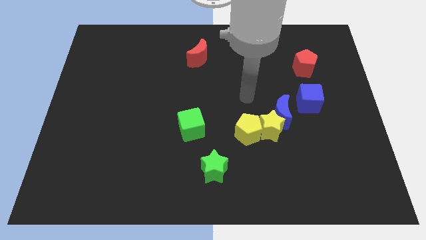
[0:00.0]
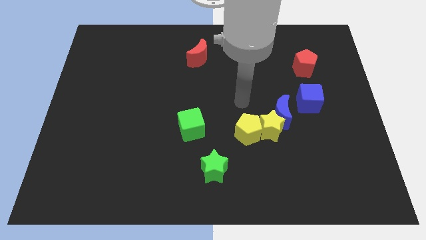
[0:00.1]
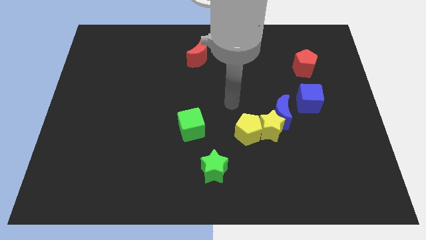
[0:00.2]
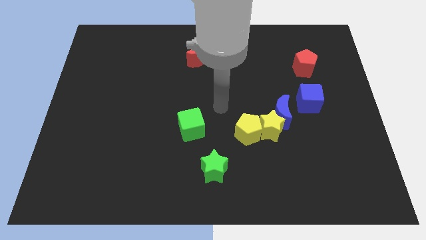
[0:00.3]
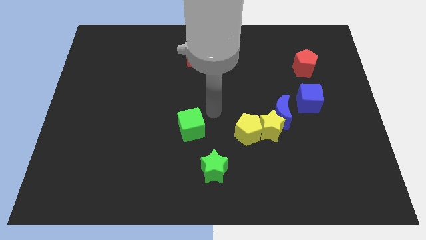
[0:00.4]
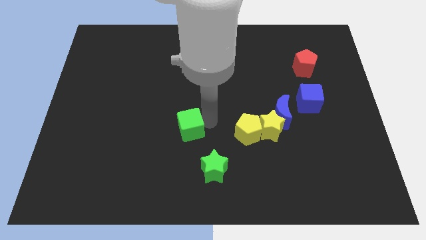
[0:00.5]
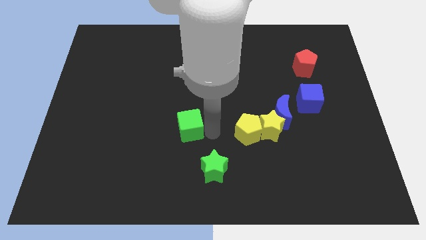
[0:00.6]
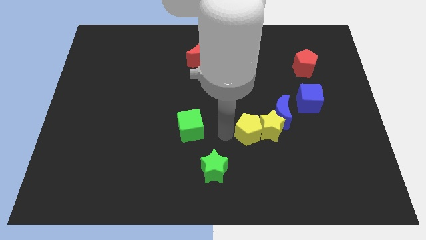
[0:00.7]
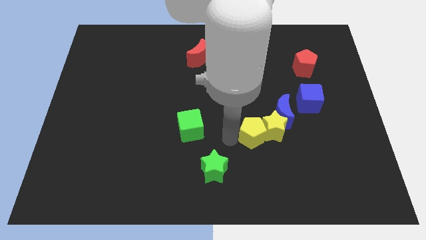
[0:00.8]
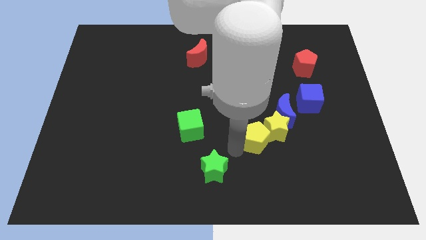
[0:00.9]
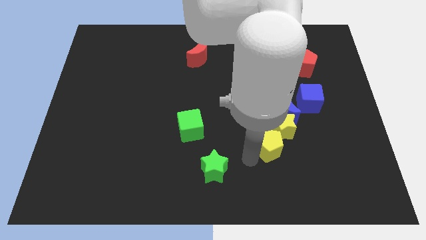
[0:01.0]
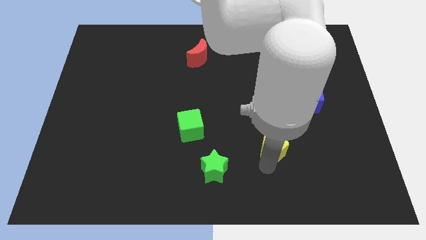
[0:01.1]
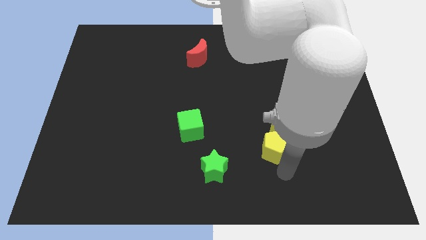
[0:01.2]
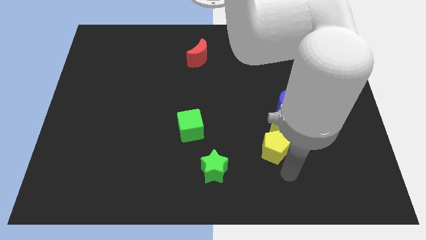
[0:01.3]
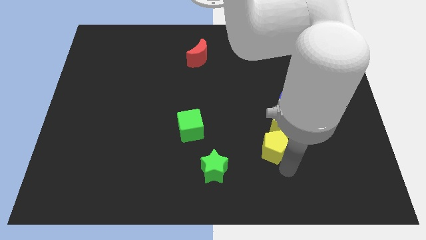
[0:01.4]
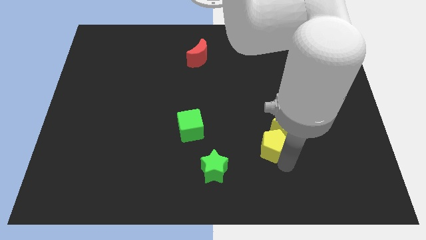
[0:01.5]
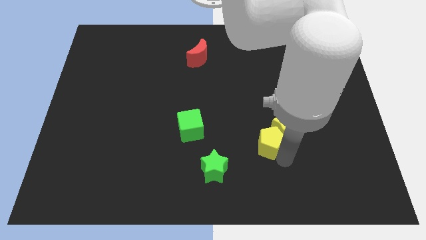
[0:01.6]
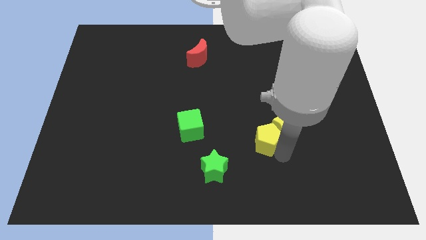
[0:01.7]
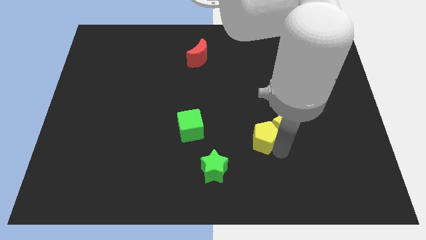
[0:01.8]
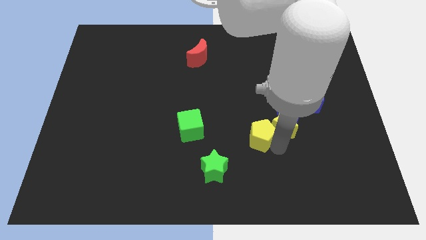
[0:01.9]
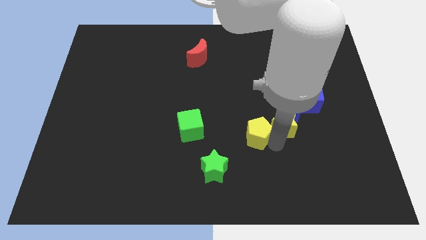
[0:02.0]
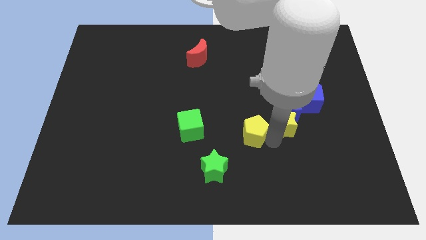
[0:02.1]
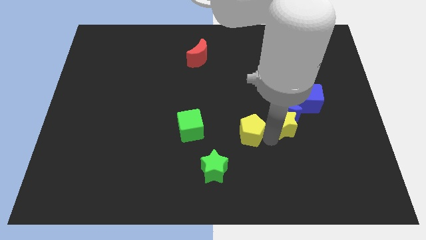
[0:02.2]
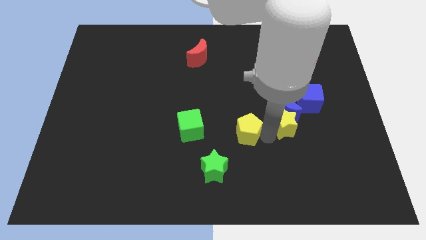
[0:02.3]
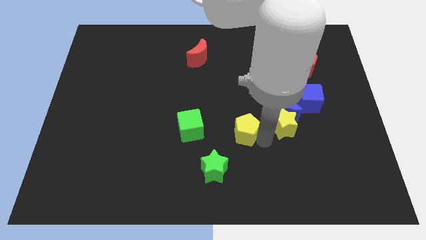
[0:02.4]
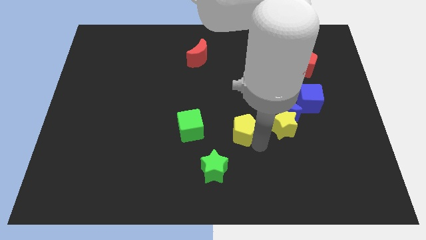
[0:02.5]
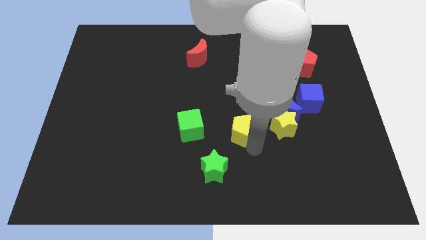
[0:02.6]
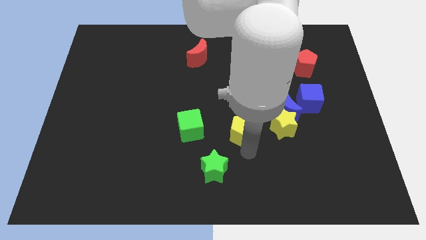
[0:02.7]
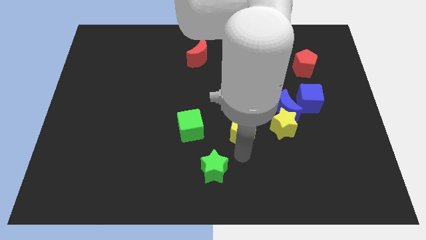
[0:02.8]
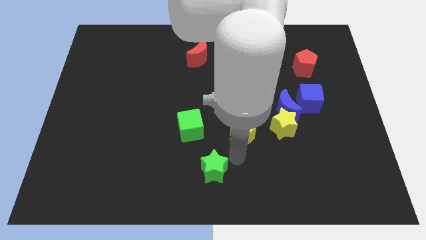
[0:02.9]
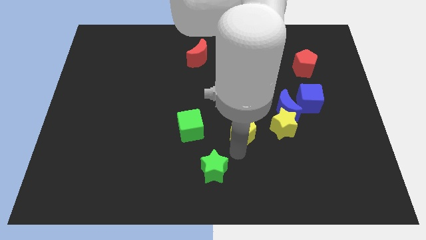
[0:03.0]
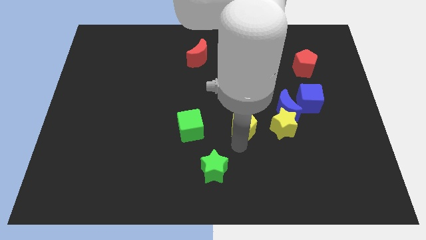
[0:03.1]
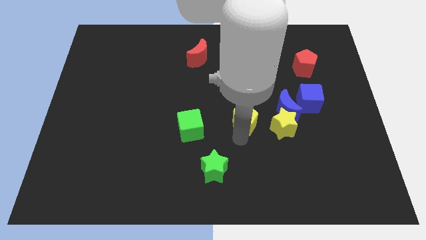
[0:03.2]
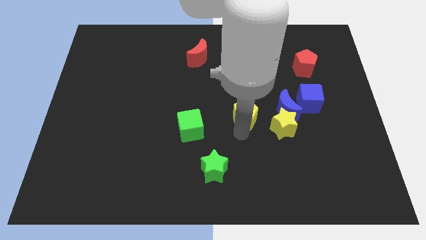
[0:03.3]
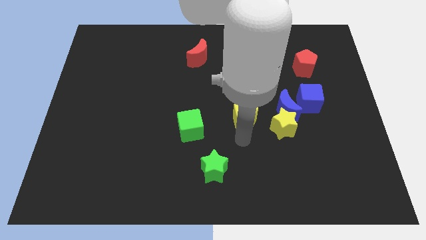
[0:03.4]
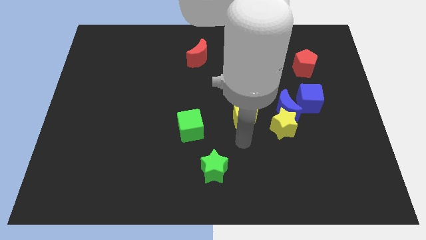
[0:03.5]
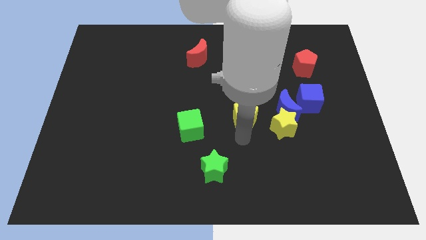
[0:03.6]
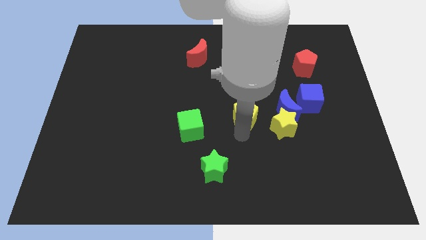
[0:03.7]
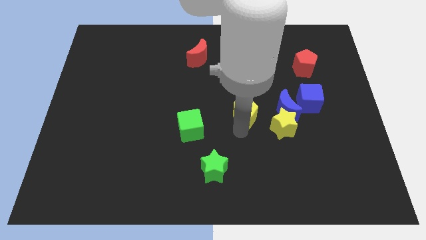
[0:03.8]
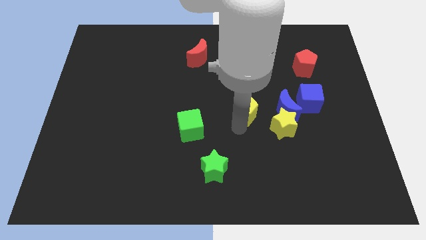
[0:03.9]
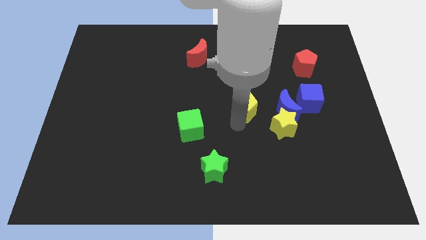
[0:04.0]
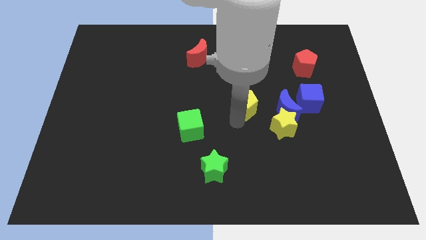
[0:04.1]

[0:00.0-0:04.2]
slightly push the yellow pentagon upwards

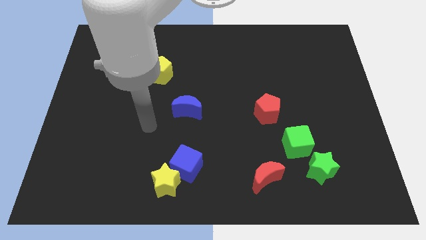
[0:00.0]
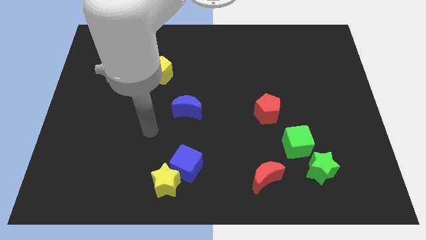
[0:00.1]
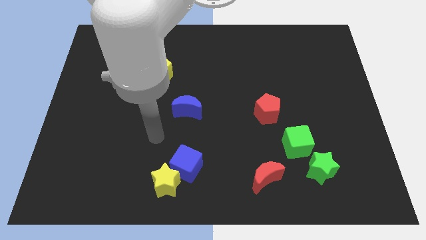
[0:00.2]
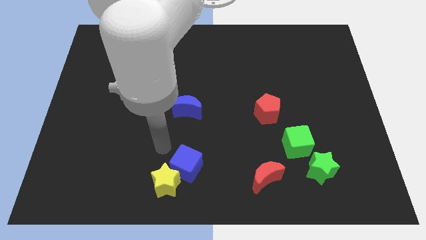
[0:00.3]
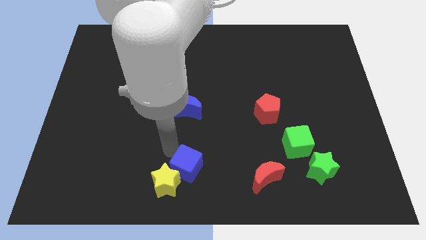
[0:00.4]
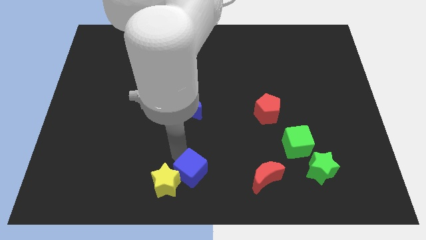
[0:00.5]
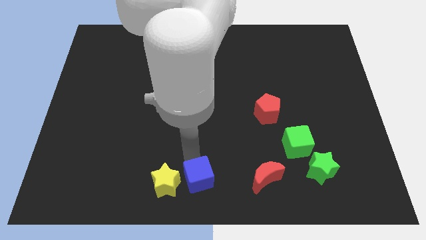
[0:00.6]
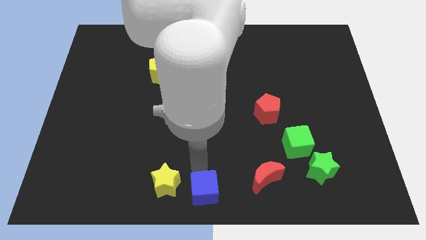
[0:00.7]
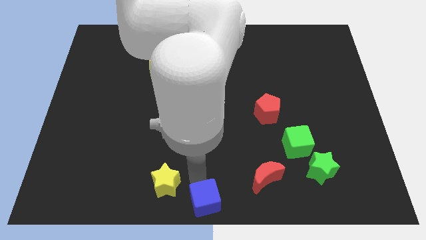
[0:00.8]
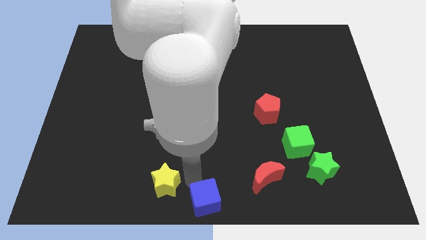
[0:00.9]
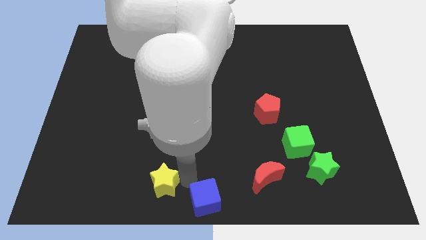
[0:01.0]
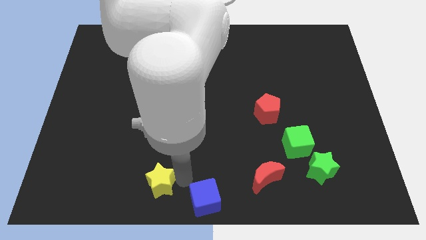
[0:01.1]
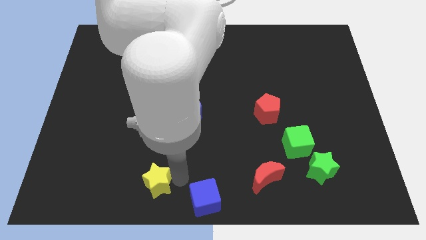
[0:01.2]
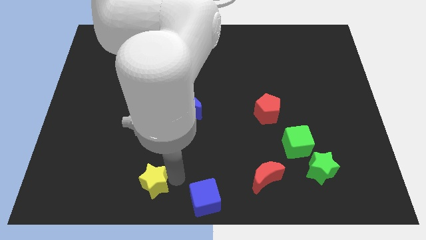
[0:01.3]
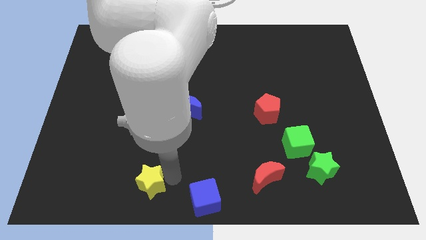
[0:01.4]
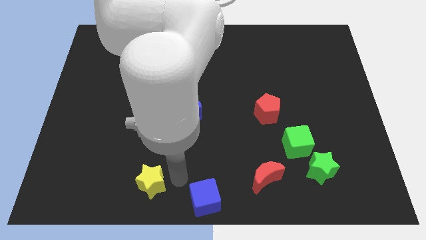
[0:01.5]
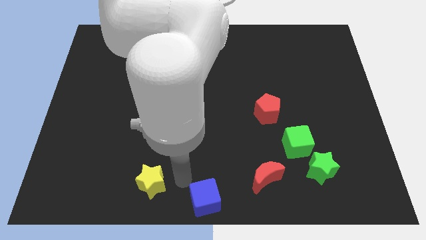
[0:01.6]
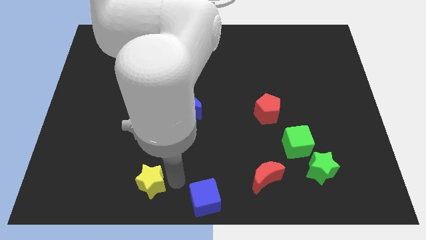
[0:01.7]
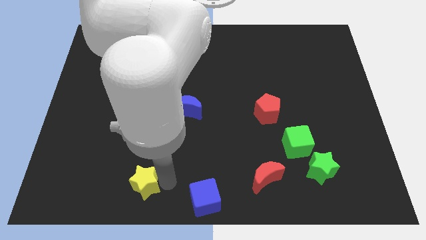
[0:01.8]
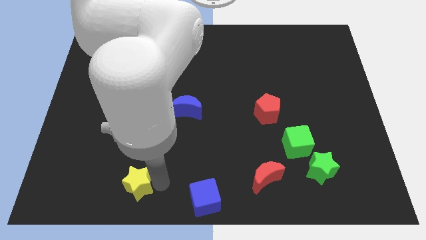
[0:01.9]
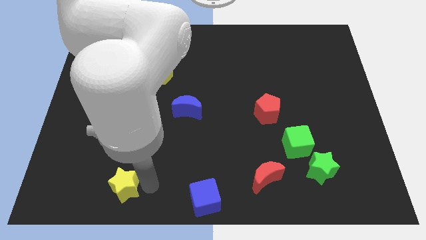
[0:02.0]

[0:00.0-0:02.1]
move the yellow star a little left

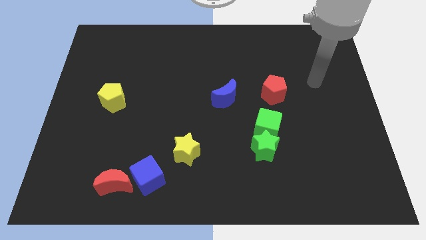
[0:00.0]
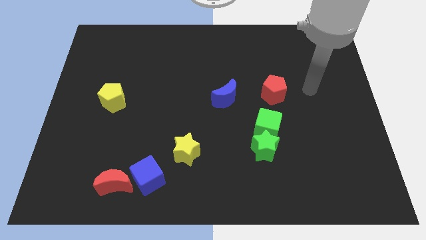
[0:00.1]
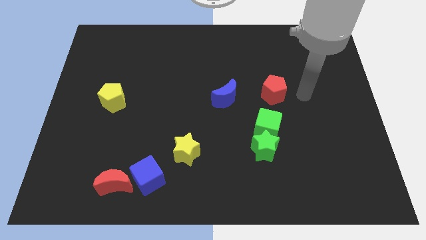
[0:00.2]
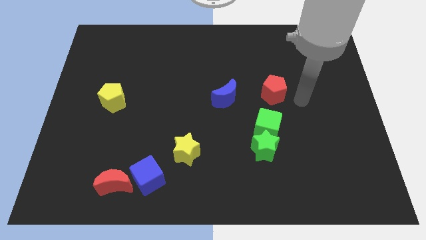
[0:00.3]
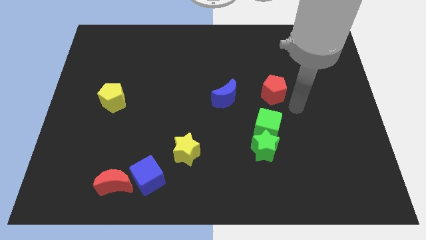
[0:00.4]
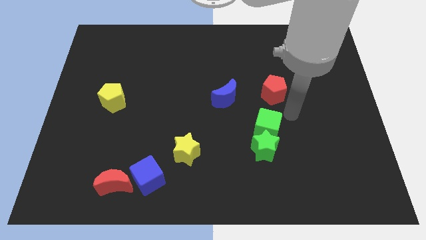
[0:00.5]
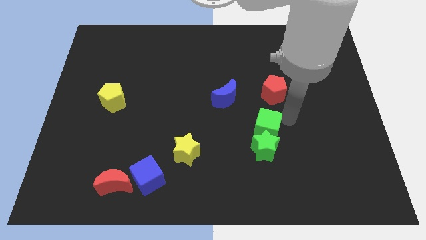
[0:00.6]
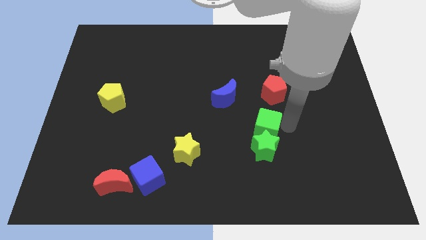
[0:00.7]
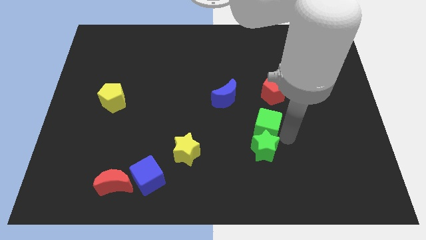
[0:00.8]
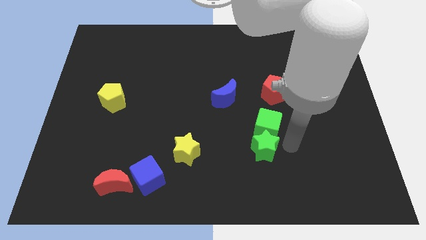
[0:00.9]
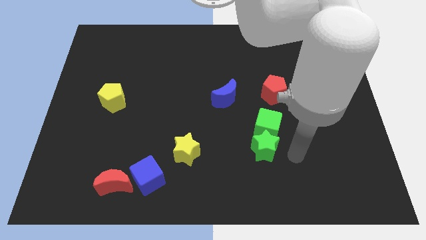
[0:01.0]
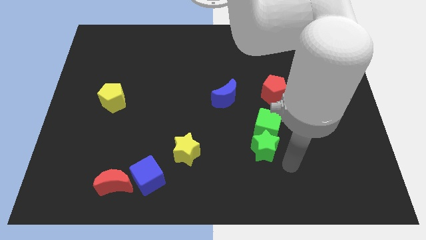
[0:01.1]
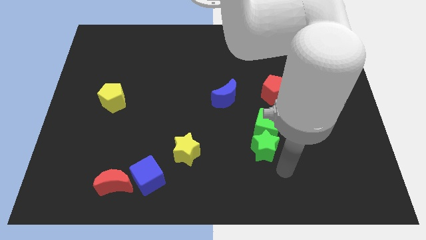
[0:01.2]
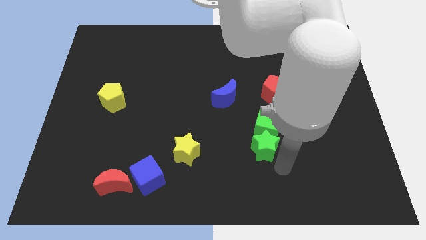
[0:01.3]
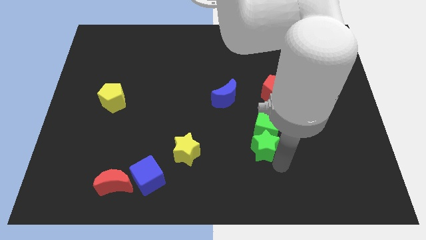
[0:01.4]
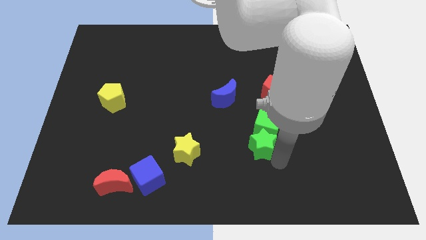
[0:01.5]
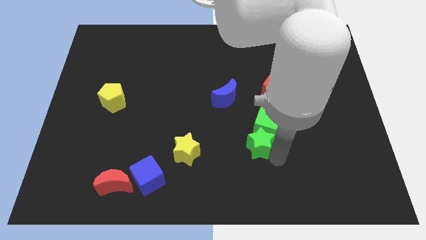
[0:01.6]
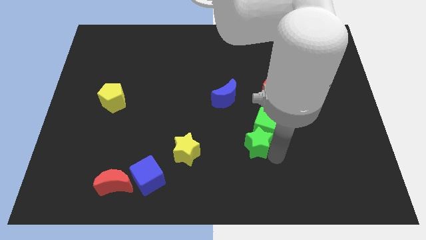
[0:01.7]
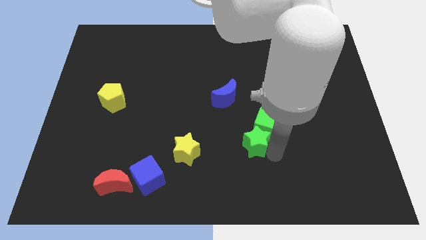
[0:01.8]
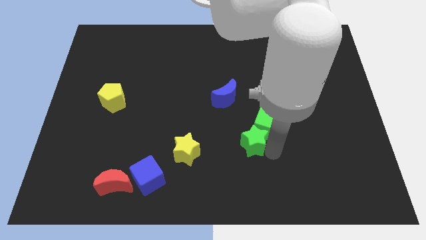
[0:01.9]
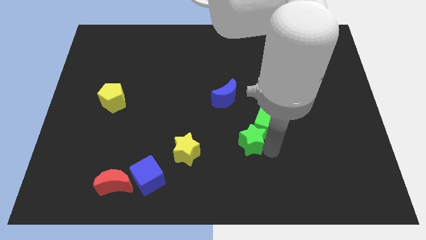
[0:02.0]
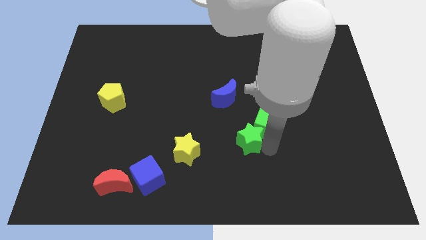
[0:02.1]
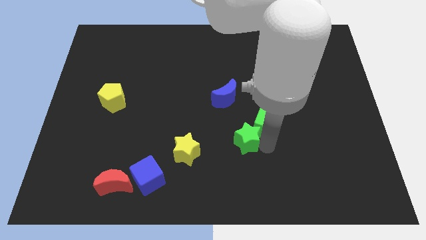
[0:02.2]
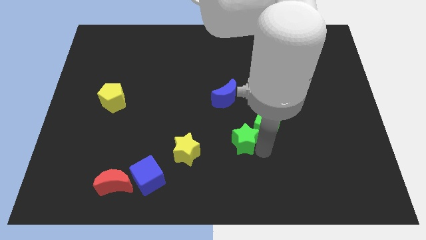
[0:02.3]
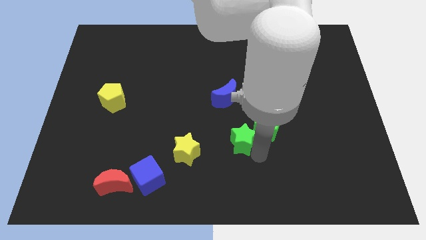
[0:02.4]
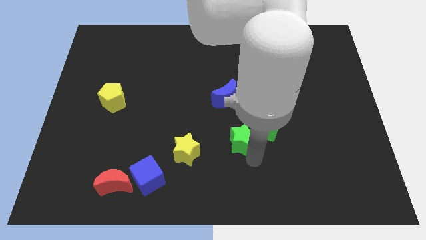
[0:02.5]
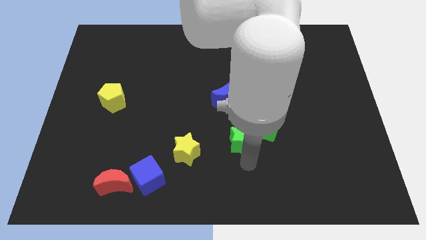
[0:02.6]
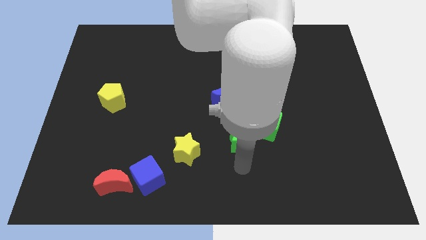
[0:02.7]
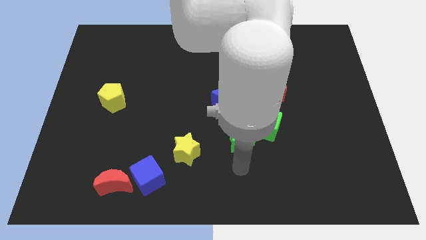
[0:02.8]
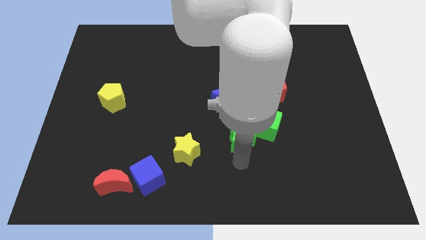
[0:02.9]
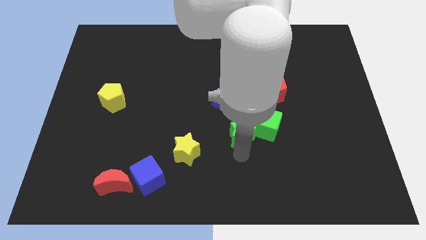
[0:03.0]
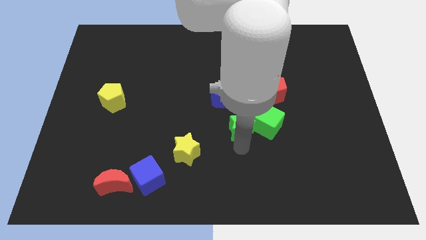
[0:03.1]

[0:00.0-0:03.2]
move the green star up and to the left slightly
